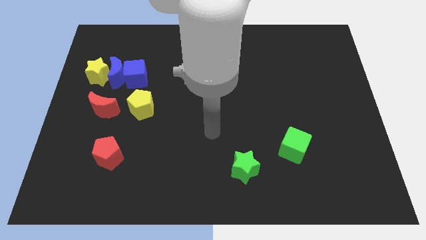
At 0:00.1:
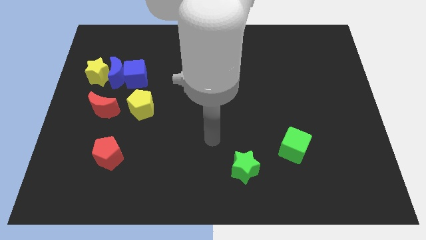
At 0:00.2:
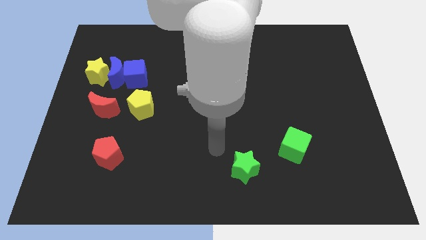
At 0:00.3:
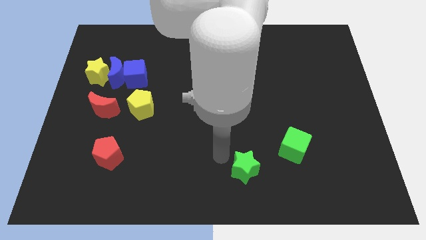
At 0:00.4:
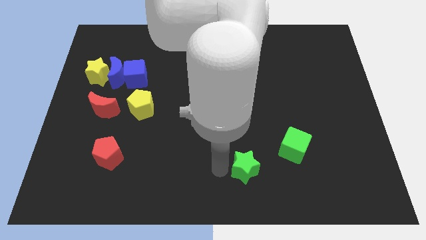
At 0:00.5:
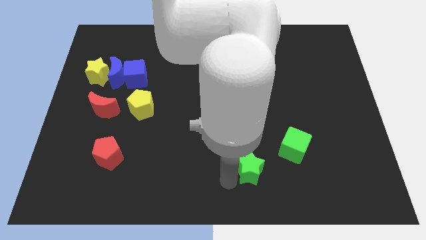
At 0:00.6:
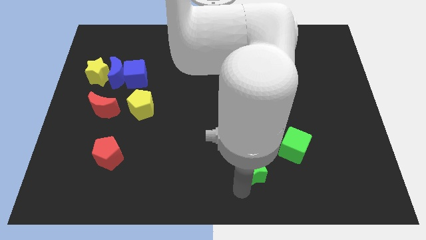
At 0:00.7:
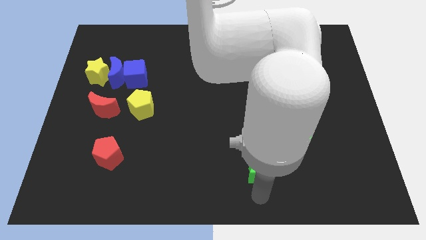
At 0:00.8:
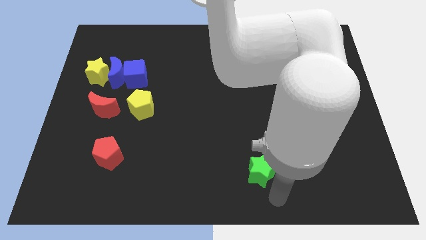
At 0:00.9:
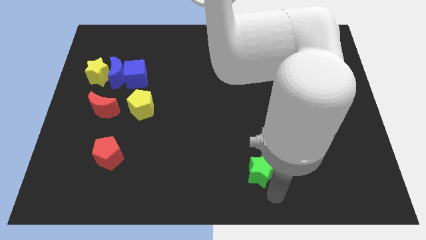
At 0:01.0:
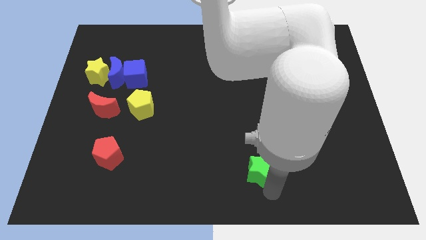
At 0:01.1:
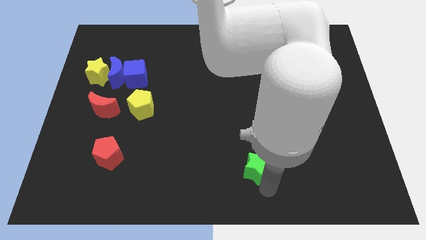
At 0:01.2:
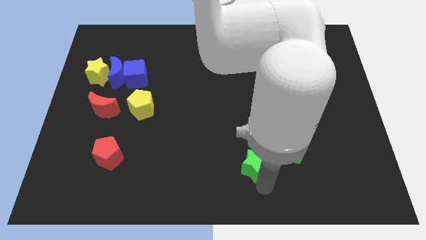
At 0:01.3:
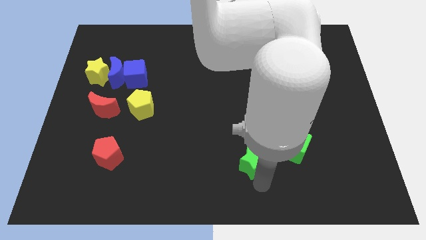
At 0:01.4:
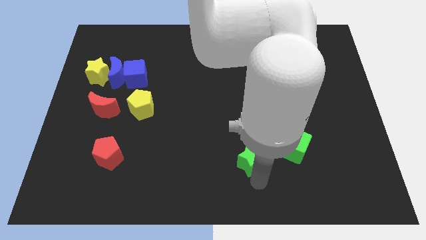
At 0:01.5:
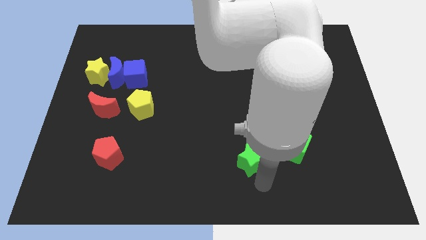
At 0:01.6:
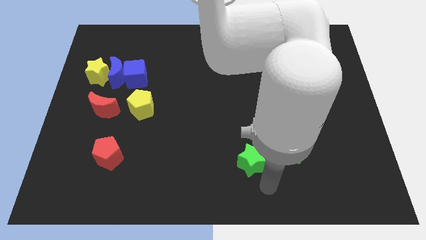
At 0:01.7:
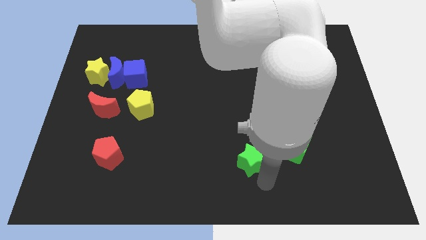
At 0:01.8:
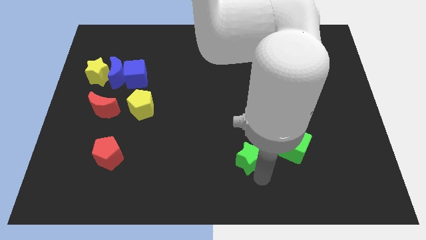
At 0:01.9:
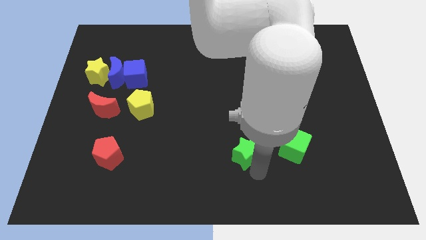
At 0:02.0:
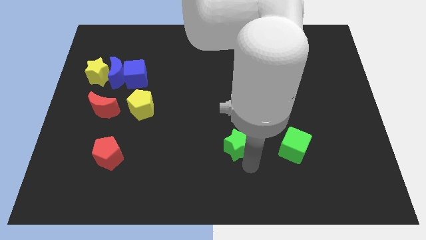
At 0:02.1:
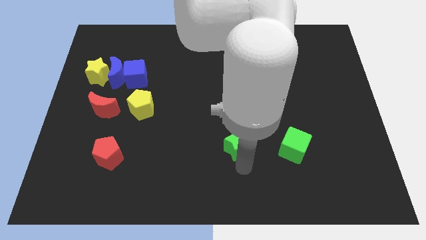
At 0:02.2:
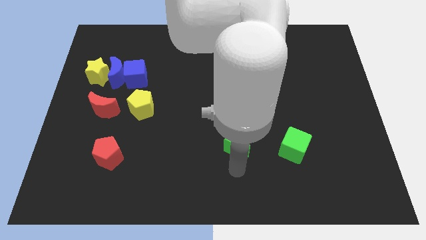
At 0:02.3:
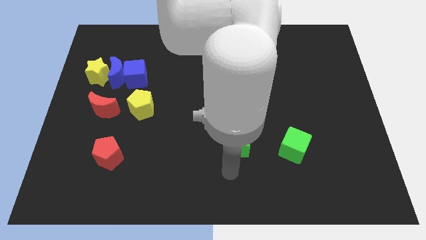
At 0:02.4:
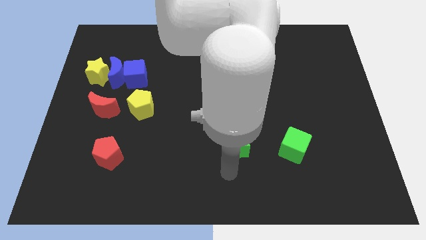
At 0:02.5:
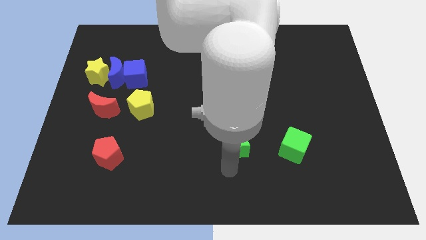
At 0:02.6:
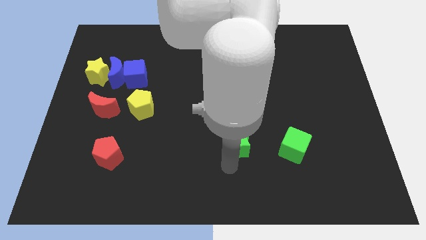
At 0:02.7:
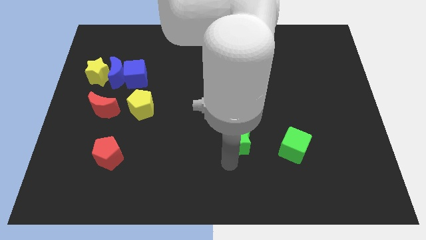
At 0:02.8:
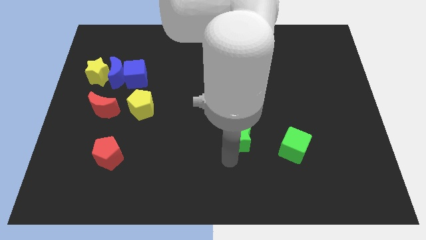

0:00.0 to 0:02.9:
slightly move the green star upwards

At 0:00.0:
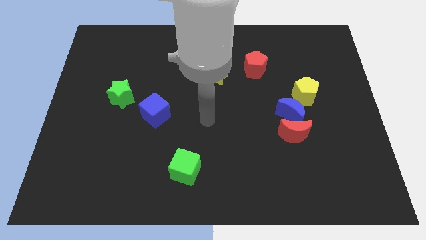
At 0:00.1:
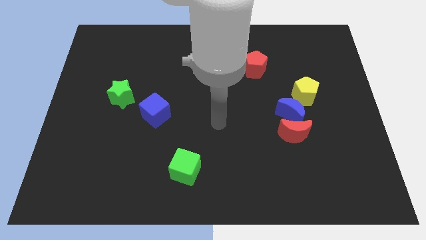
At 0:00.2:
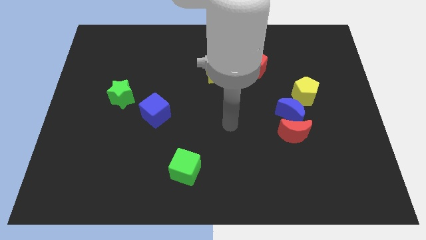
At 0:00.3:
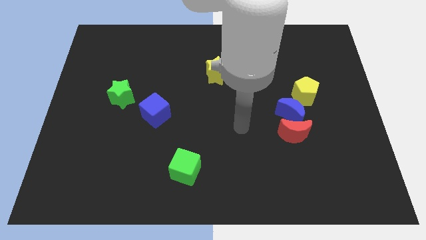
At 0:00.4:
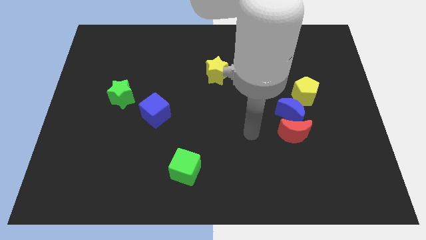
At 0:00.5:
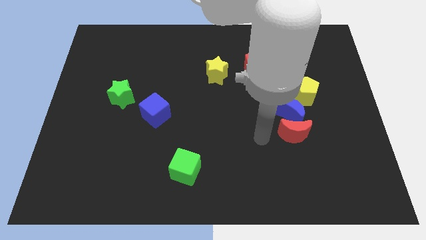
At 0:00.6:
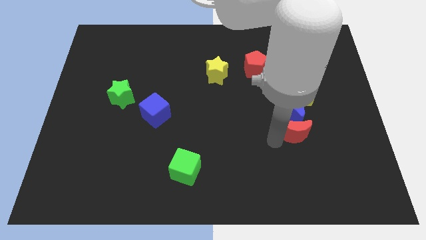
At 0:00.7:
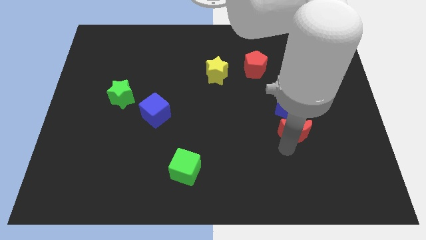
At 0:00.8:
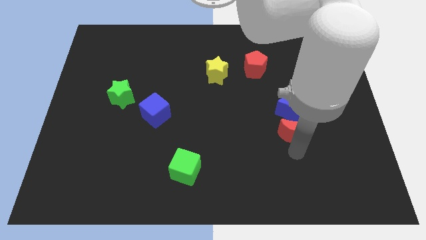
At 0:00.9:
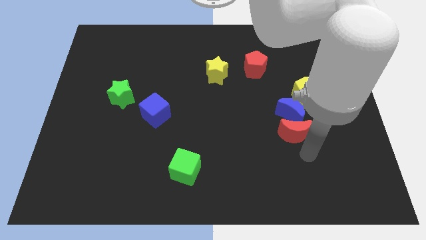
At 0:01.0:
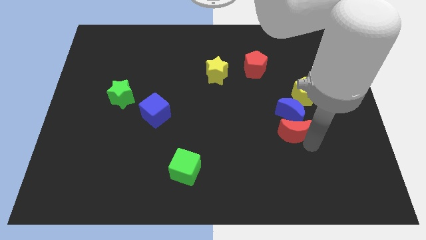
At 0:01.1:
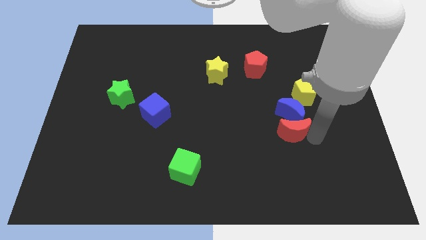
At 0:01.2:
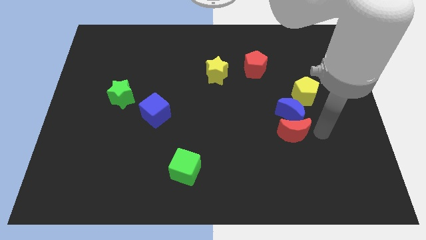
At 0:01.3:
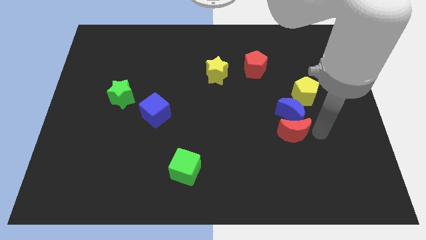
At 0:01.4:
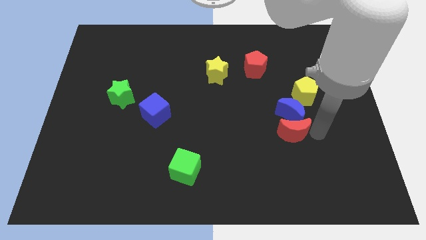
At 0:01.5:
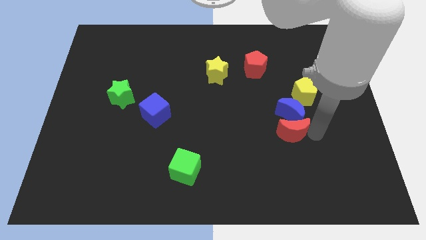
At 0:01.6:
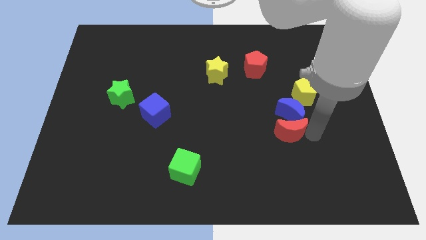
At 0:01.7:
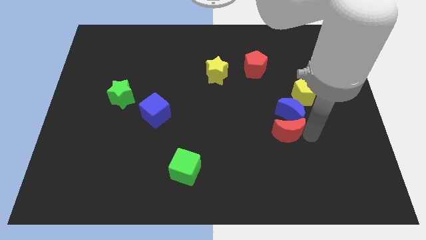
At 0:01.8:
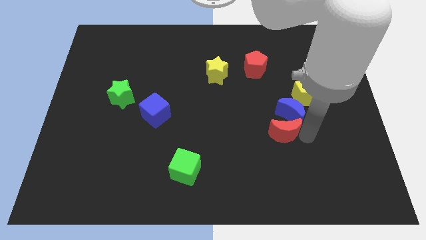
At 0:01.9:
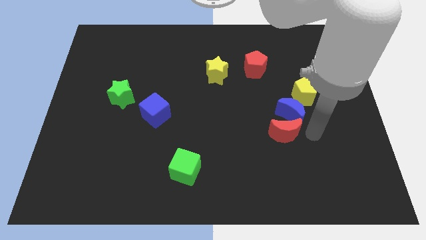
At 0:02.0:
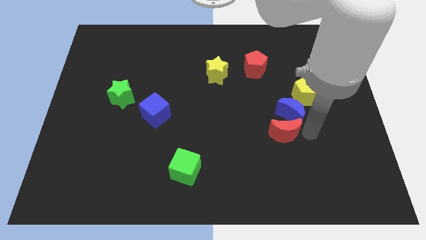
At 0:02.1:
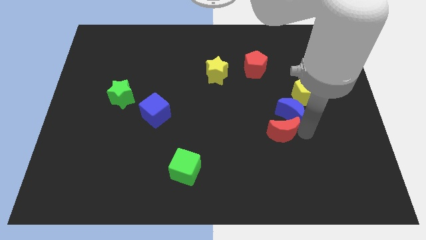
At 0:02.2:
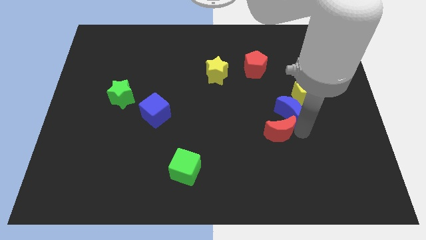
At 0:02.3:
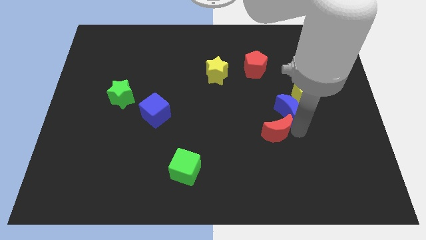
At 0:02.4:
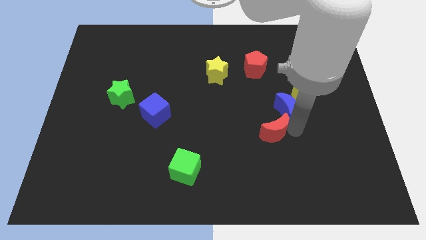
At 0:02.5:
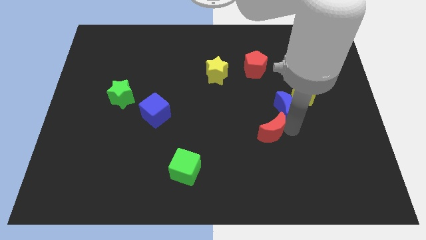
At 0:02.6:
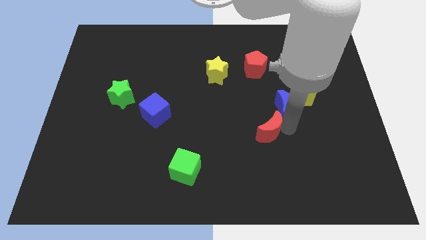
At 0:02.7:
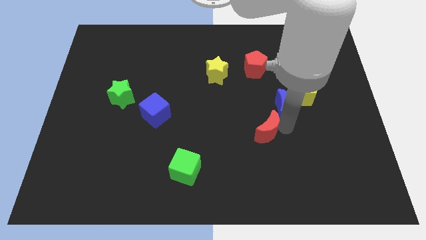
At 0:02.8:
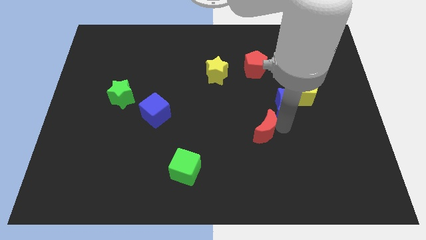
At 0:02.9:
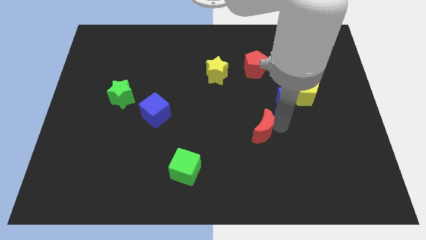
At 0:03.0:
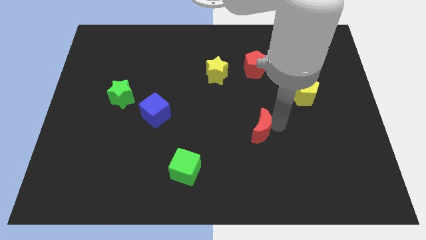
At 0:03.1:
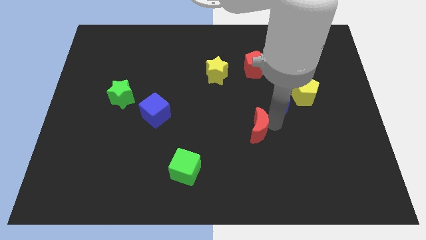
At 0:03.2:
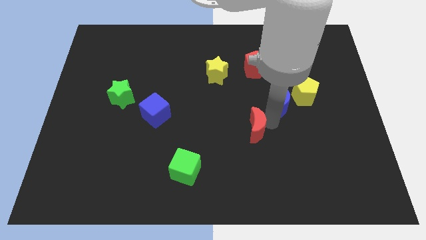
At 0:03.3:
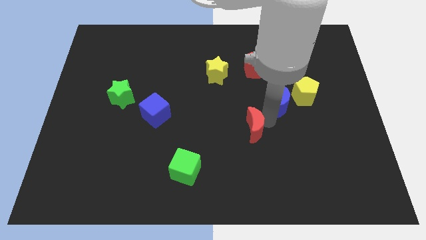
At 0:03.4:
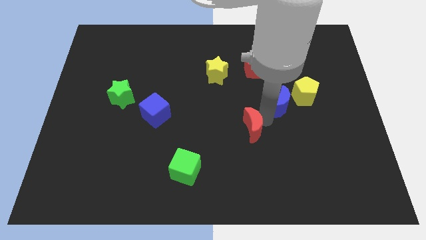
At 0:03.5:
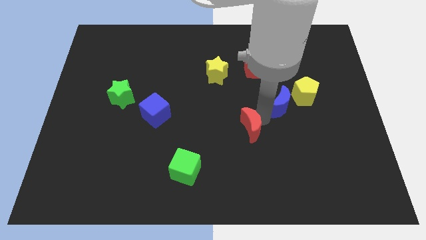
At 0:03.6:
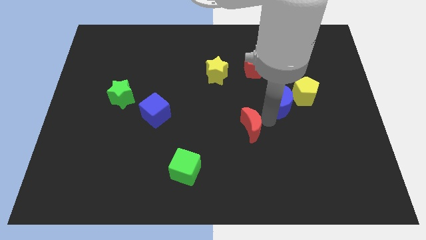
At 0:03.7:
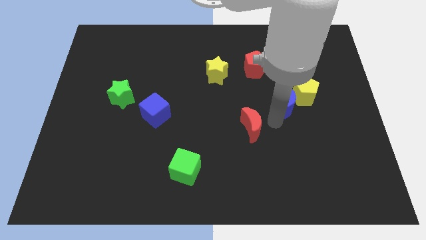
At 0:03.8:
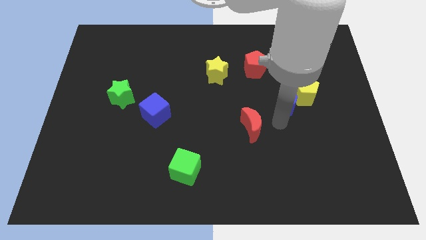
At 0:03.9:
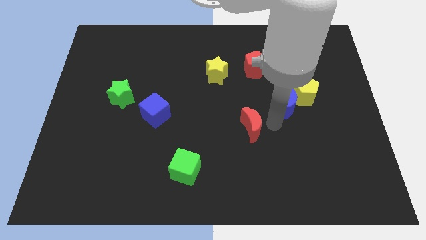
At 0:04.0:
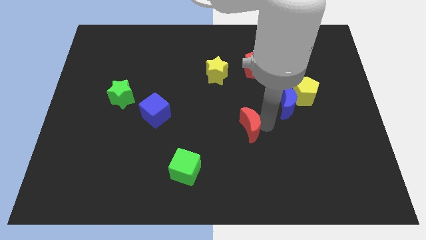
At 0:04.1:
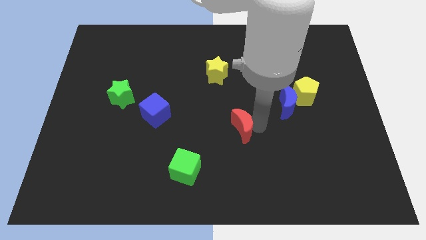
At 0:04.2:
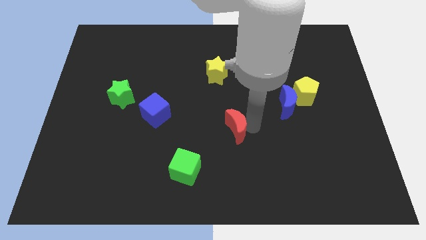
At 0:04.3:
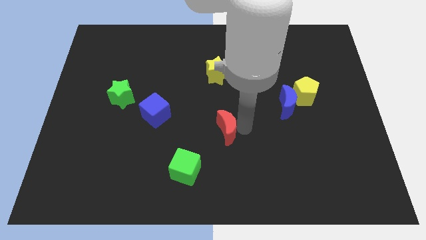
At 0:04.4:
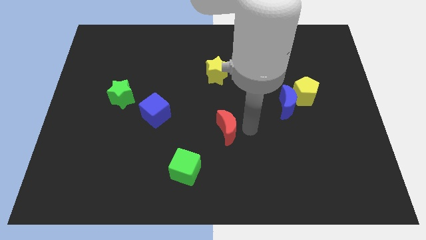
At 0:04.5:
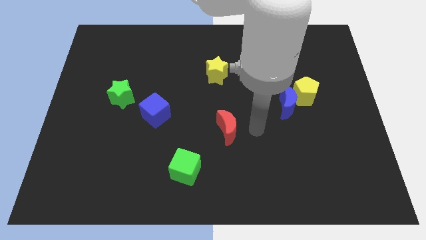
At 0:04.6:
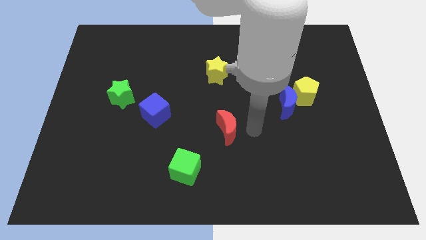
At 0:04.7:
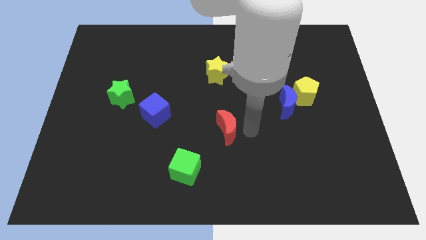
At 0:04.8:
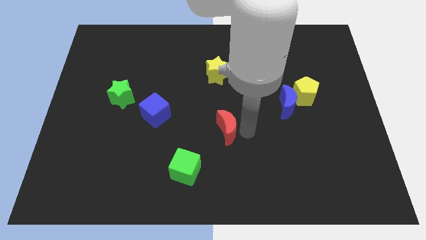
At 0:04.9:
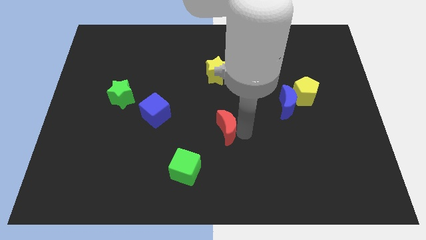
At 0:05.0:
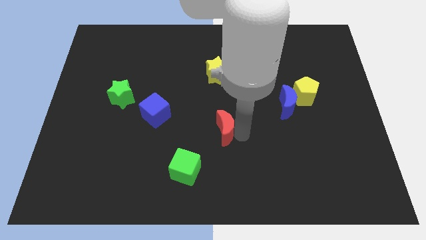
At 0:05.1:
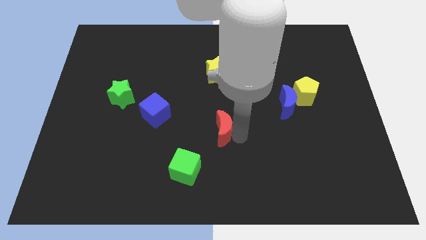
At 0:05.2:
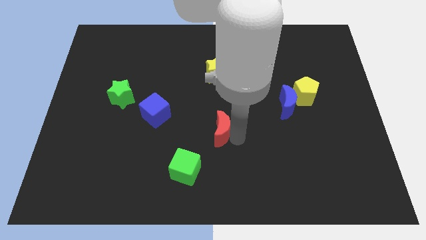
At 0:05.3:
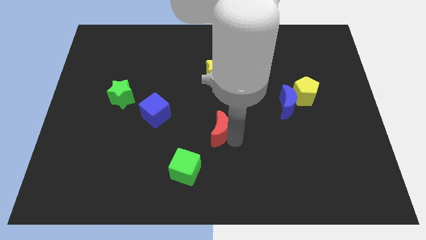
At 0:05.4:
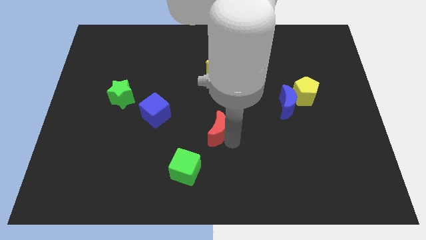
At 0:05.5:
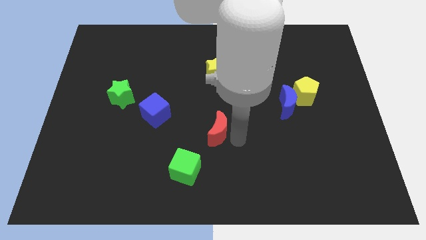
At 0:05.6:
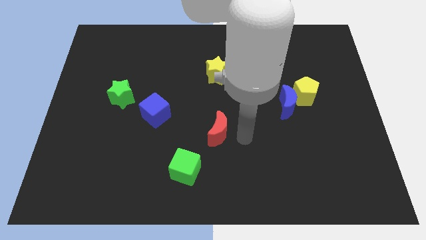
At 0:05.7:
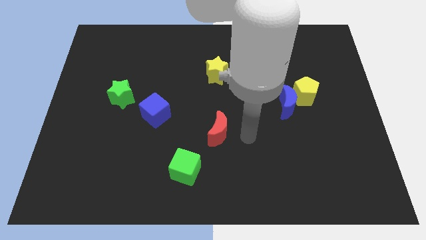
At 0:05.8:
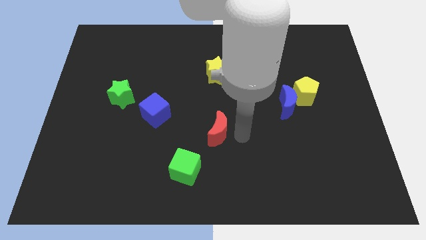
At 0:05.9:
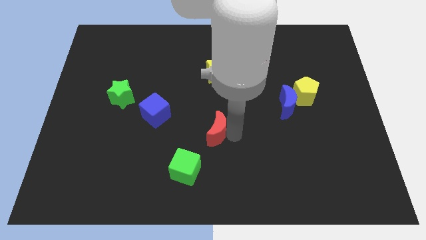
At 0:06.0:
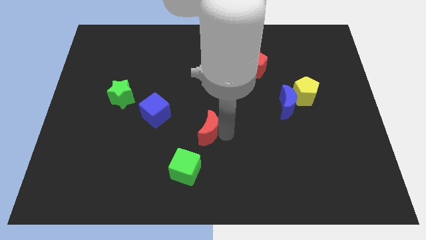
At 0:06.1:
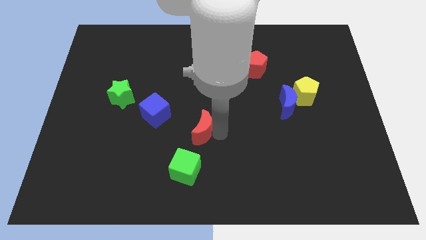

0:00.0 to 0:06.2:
slide the red moon to the left
